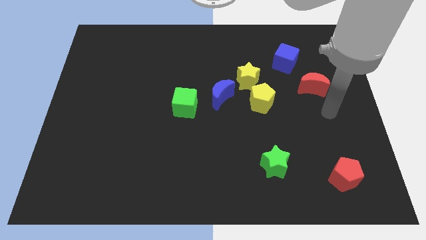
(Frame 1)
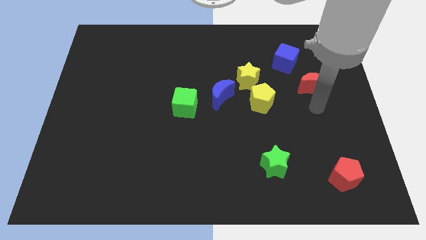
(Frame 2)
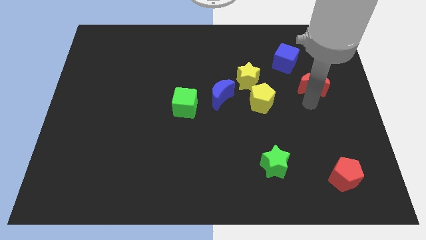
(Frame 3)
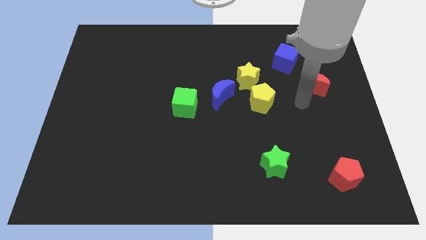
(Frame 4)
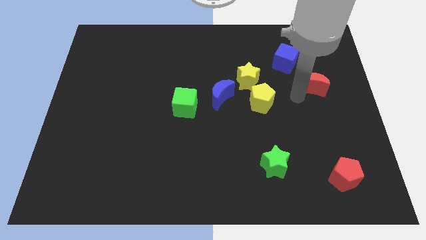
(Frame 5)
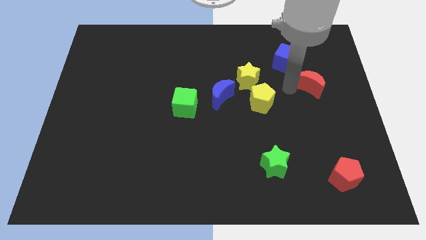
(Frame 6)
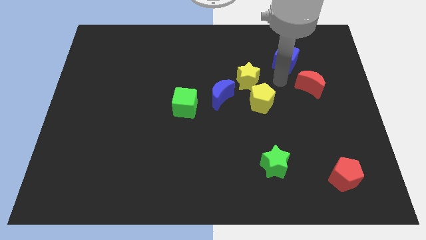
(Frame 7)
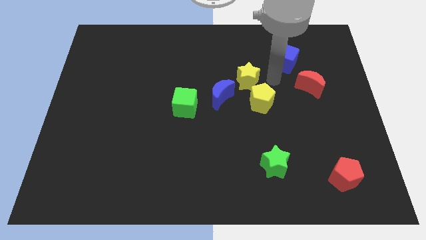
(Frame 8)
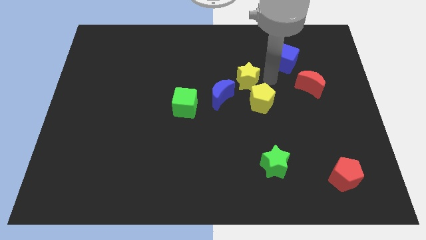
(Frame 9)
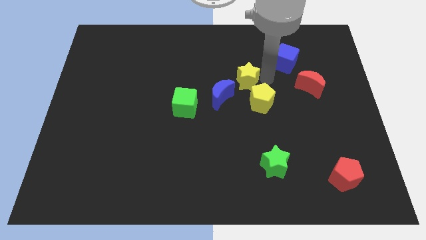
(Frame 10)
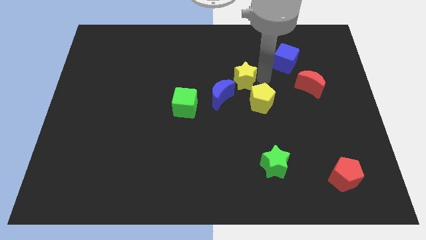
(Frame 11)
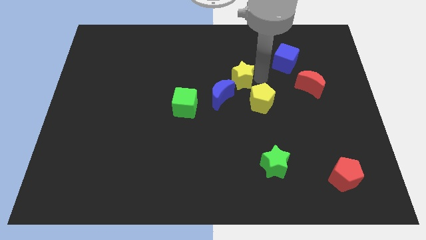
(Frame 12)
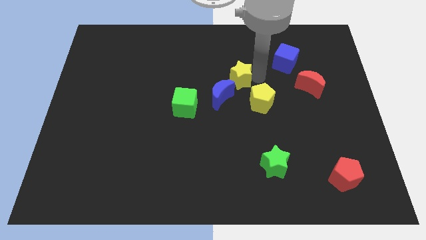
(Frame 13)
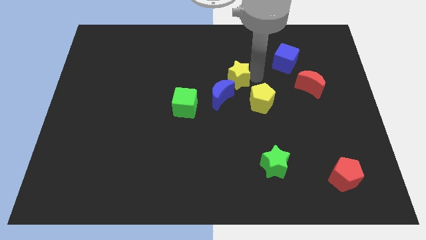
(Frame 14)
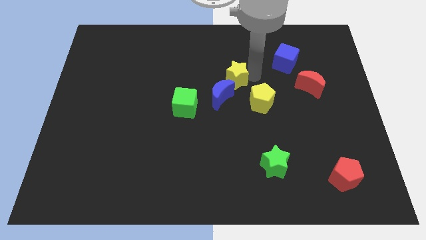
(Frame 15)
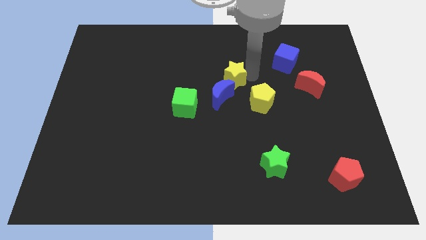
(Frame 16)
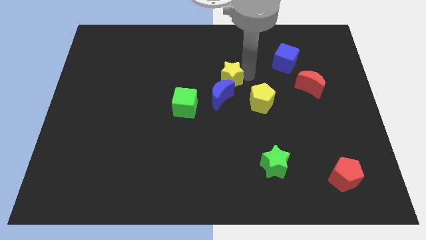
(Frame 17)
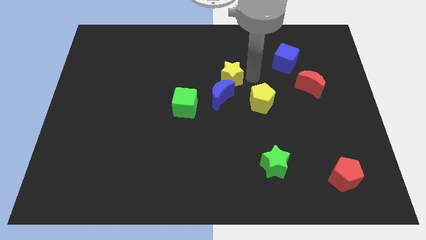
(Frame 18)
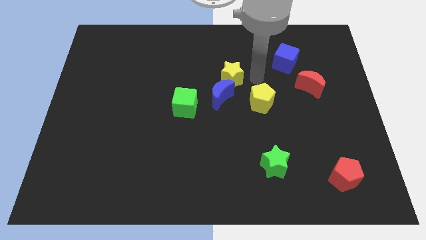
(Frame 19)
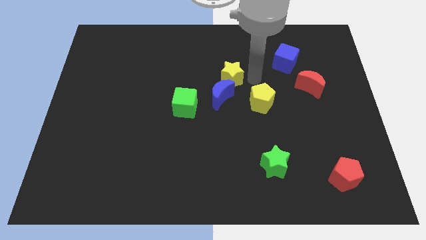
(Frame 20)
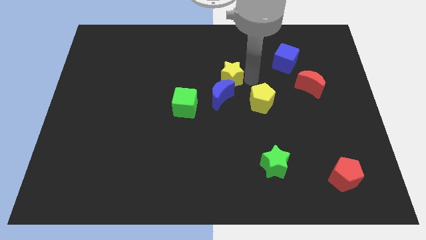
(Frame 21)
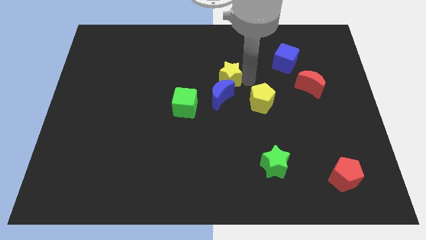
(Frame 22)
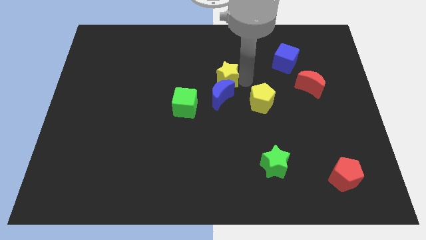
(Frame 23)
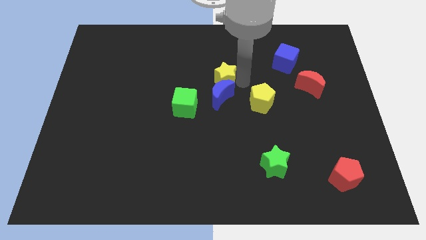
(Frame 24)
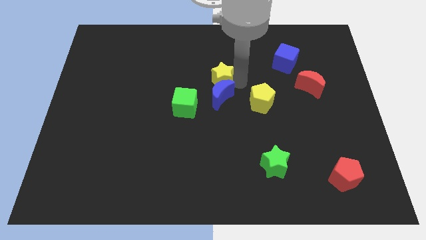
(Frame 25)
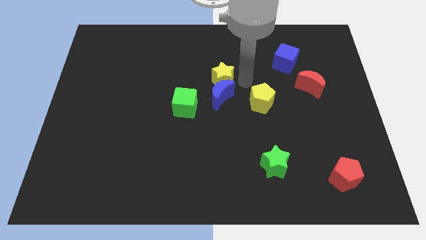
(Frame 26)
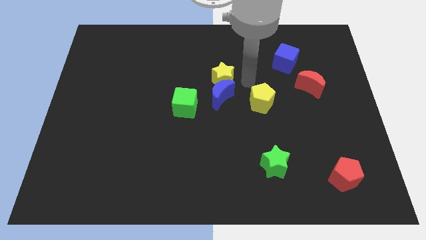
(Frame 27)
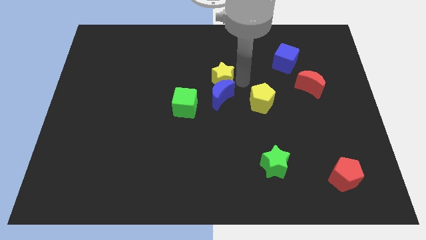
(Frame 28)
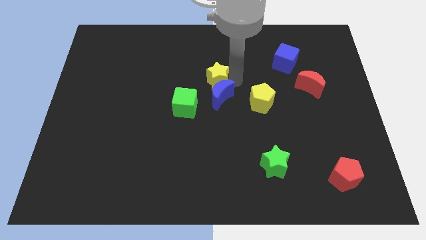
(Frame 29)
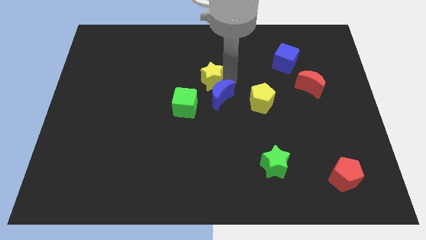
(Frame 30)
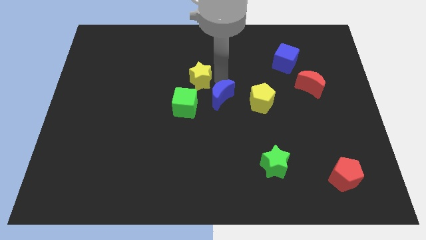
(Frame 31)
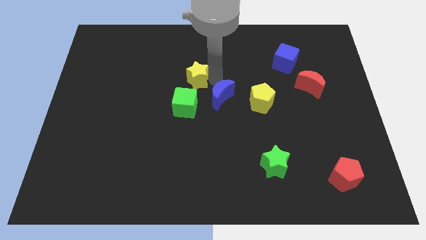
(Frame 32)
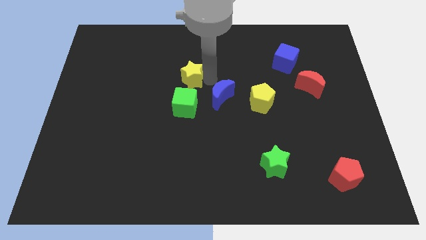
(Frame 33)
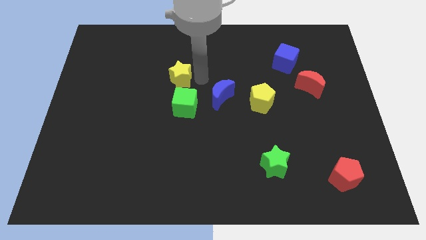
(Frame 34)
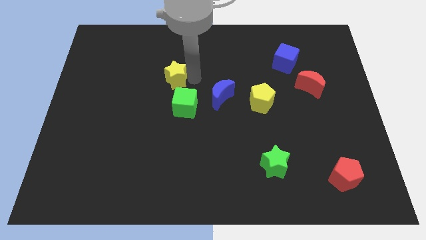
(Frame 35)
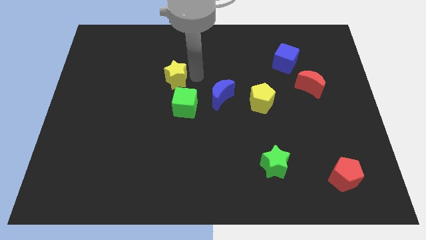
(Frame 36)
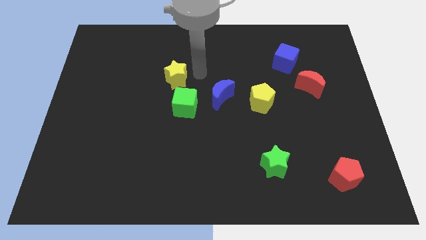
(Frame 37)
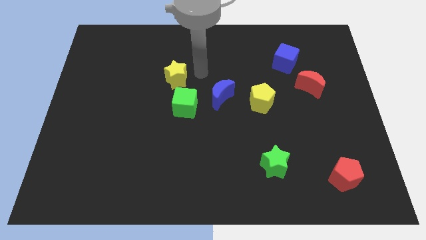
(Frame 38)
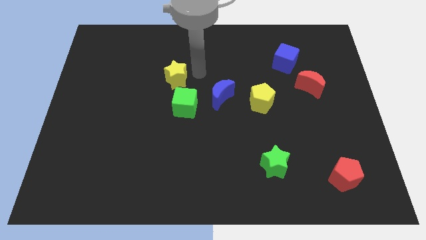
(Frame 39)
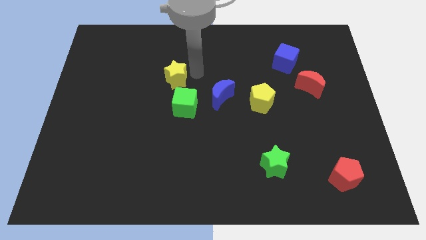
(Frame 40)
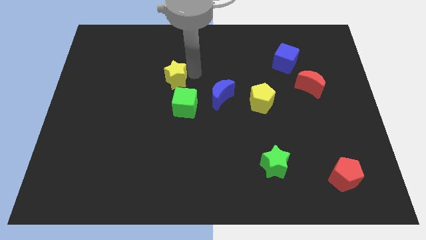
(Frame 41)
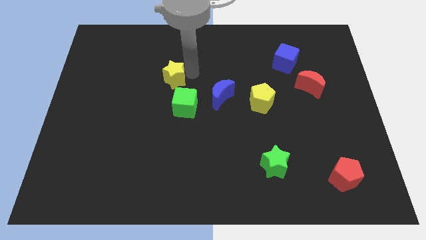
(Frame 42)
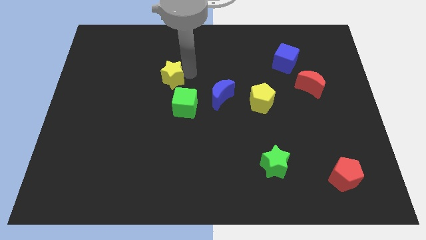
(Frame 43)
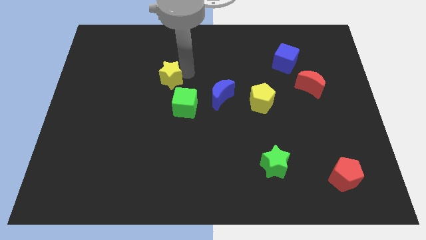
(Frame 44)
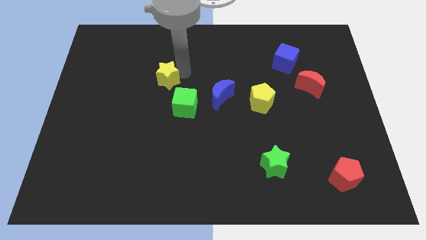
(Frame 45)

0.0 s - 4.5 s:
slide the yellow star to the left

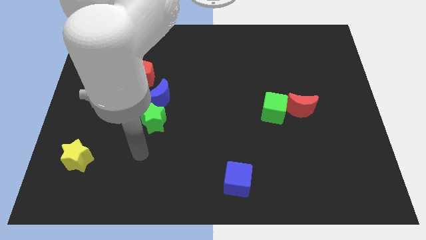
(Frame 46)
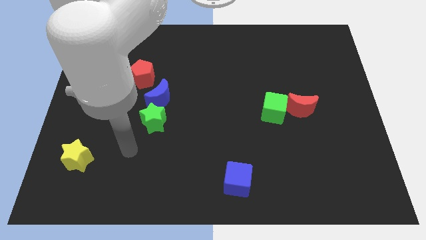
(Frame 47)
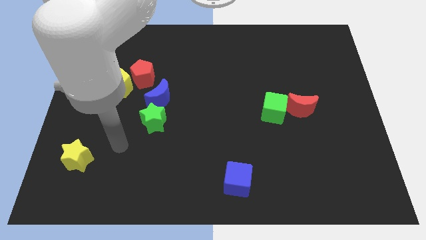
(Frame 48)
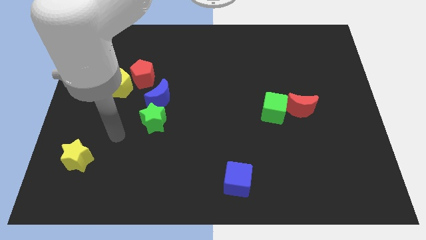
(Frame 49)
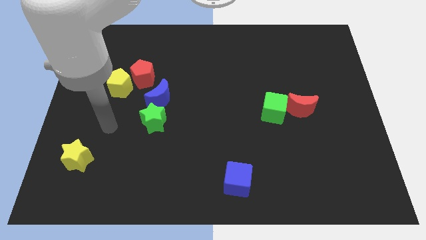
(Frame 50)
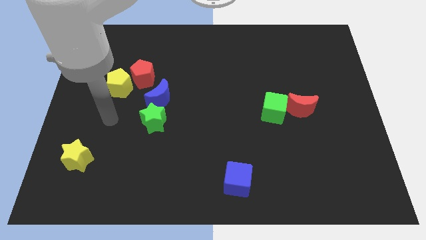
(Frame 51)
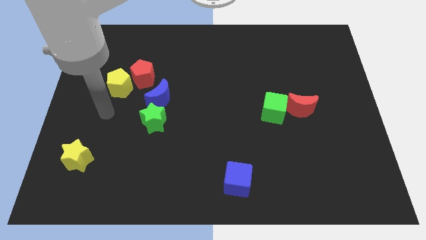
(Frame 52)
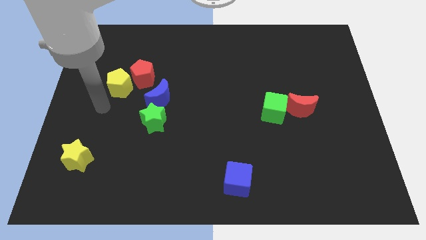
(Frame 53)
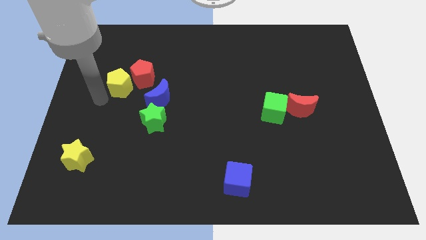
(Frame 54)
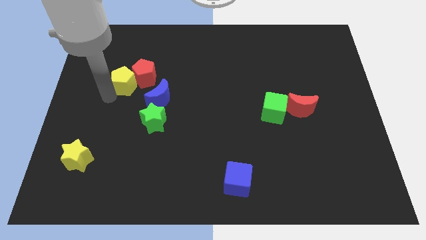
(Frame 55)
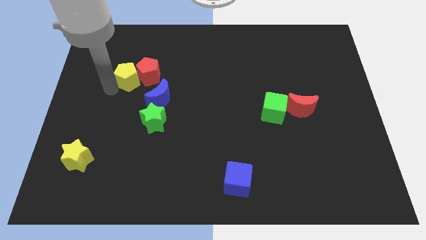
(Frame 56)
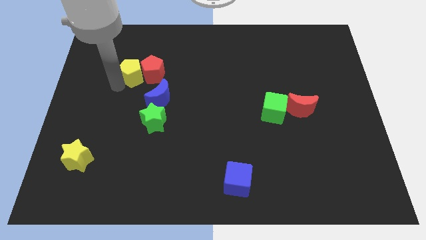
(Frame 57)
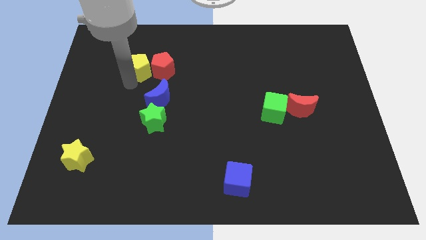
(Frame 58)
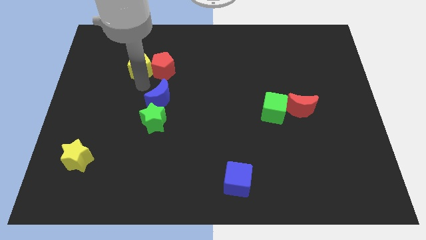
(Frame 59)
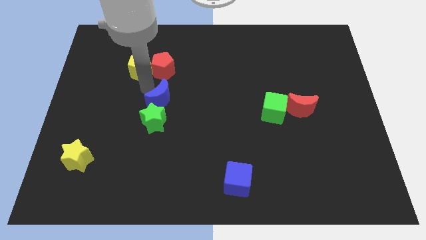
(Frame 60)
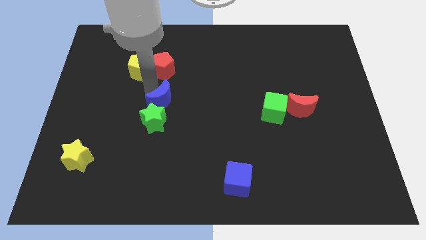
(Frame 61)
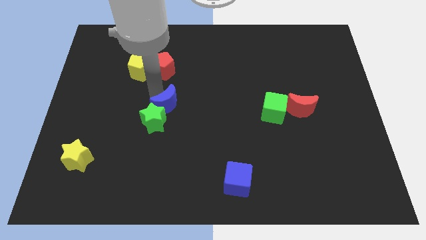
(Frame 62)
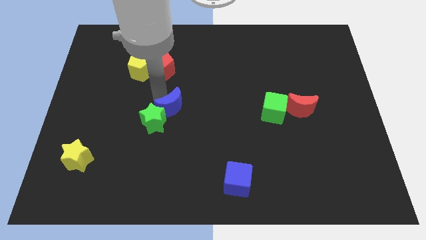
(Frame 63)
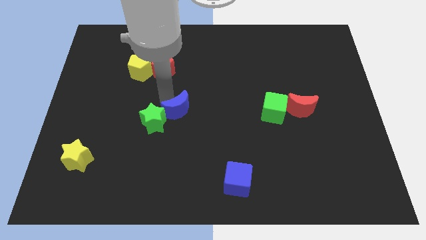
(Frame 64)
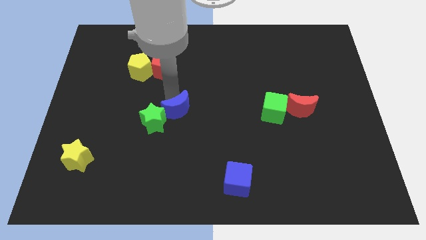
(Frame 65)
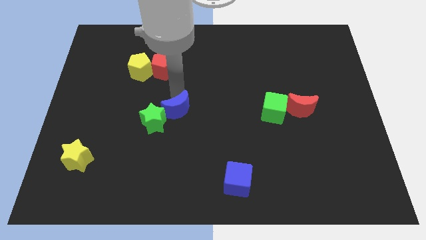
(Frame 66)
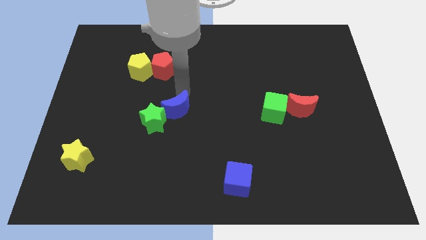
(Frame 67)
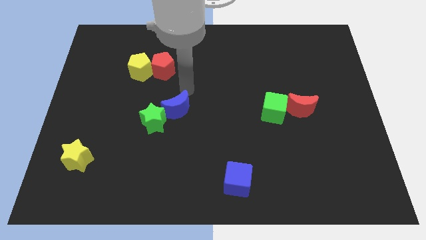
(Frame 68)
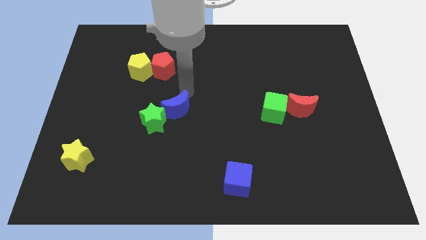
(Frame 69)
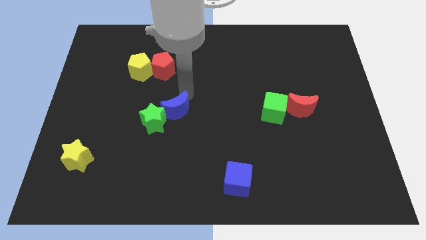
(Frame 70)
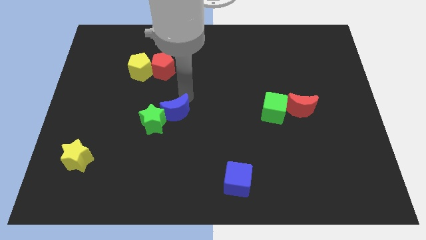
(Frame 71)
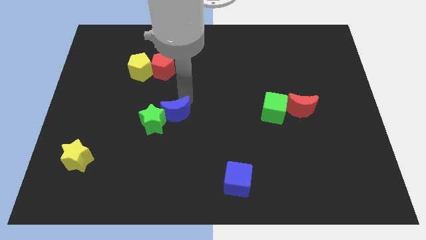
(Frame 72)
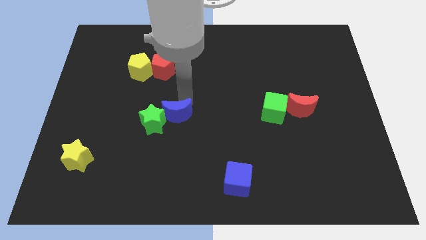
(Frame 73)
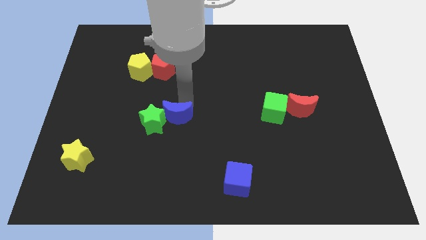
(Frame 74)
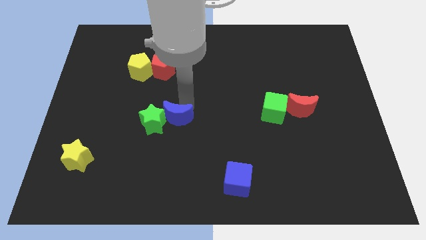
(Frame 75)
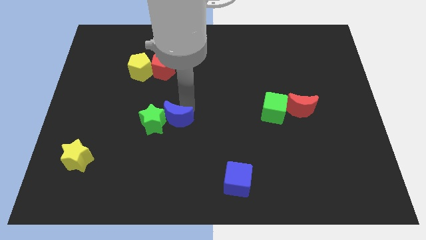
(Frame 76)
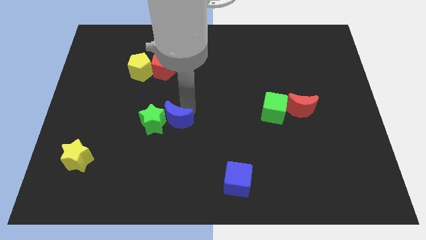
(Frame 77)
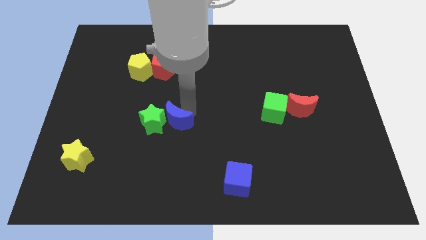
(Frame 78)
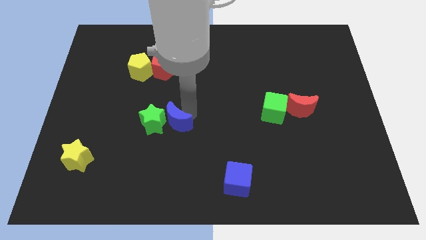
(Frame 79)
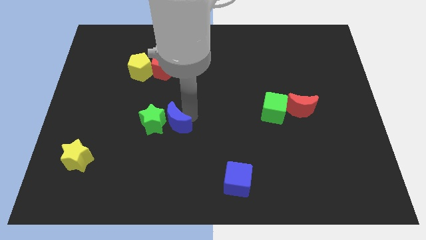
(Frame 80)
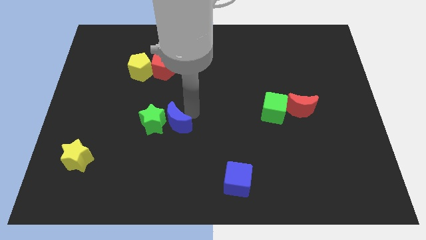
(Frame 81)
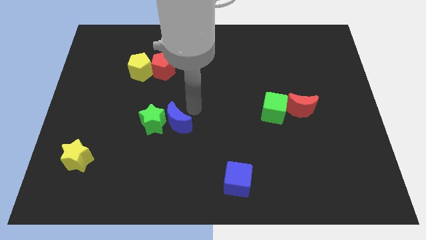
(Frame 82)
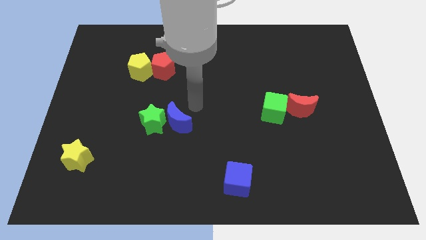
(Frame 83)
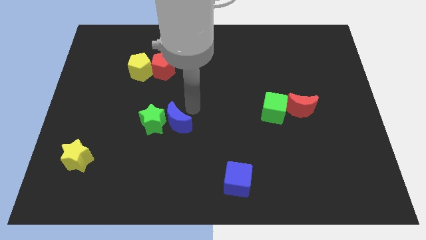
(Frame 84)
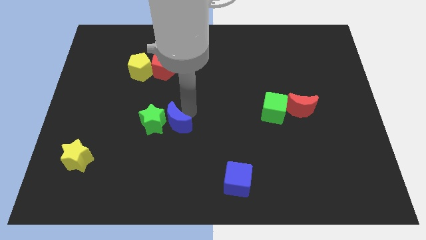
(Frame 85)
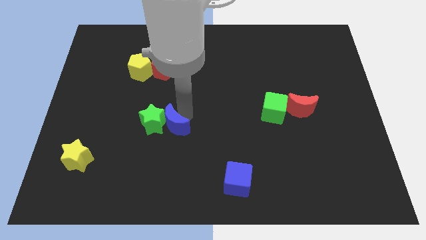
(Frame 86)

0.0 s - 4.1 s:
move the blue moon down a little
